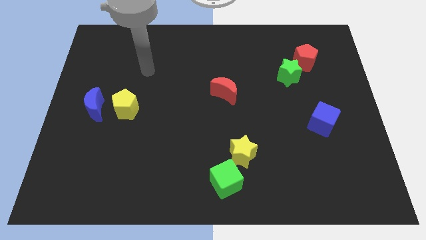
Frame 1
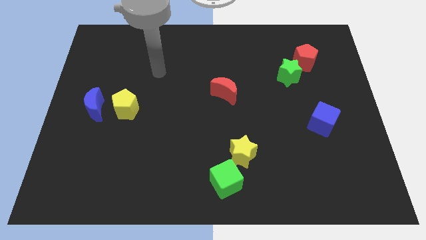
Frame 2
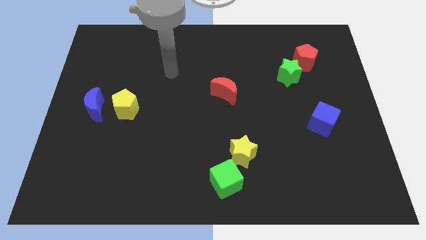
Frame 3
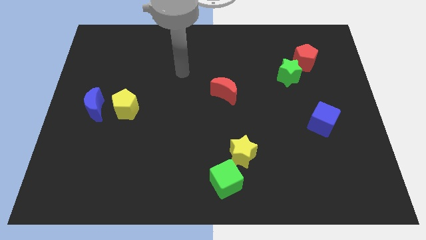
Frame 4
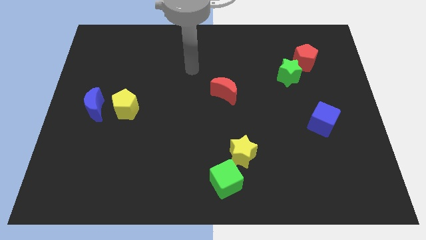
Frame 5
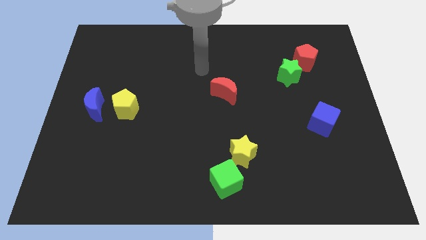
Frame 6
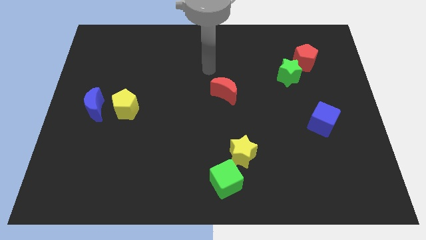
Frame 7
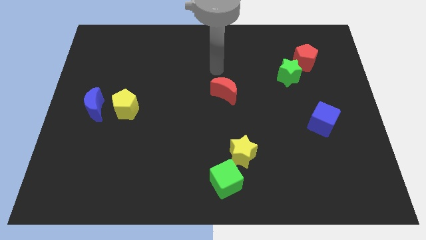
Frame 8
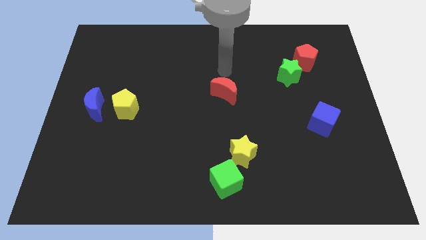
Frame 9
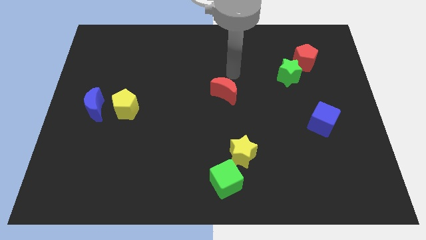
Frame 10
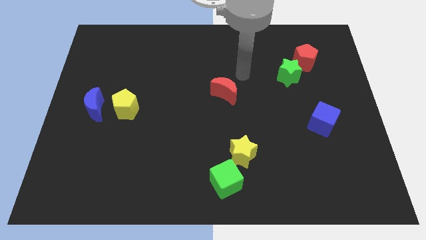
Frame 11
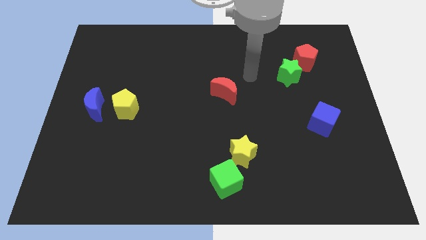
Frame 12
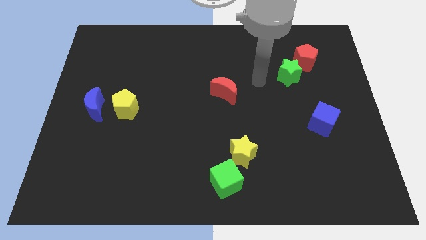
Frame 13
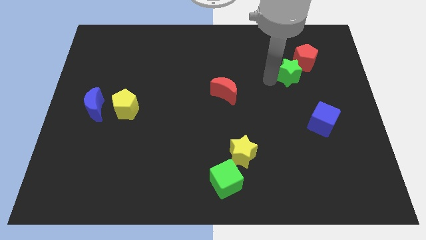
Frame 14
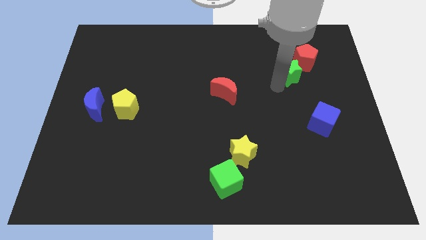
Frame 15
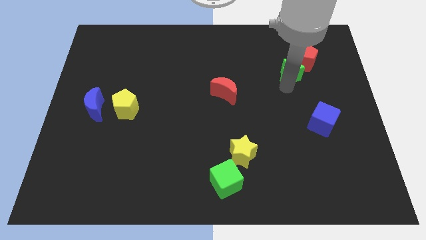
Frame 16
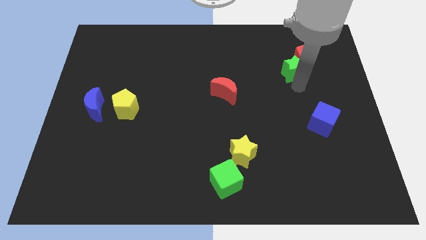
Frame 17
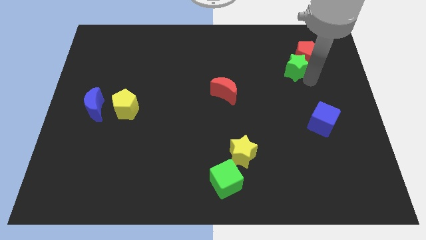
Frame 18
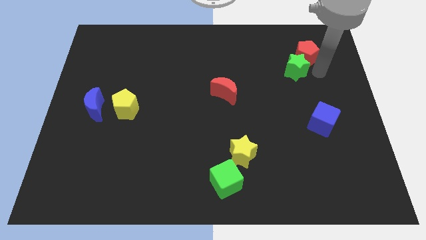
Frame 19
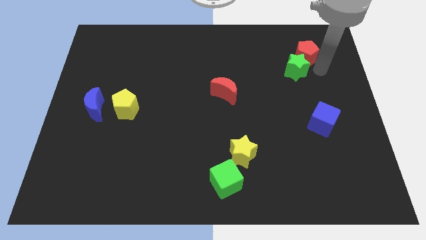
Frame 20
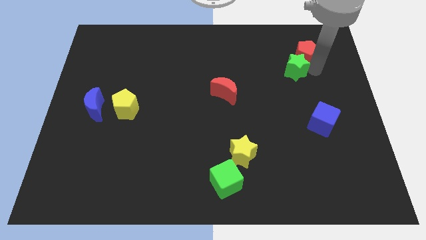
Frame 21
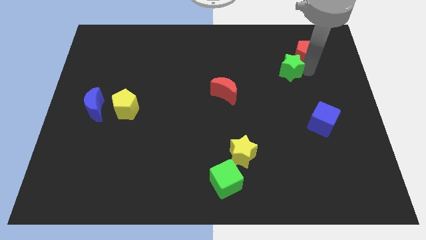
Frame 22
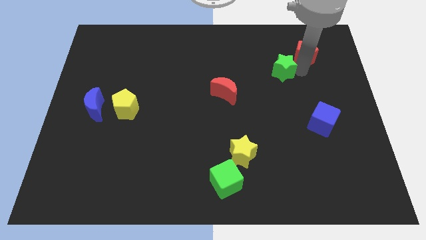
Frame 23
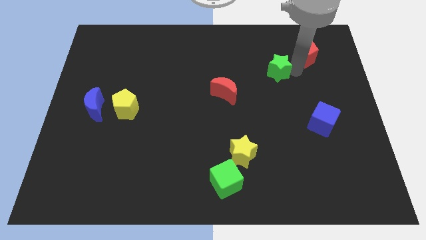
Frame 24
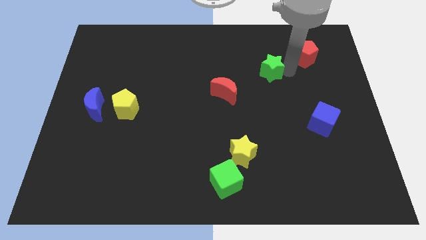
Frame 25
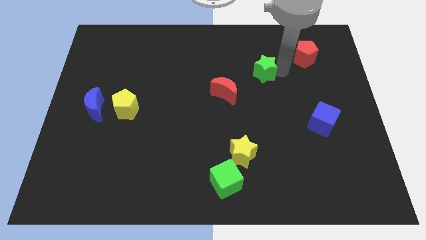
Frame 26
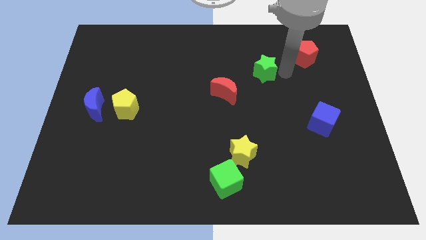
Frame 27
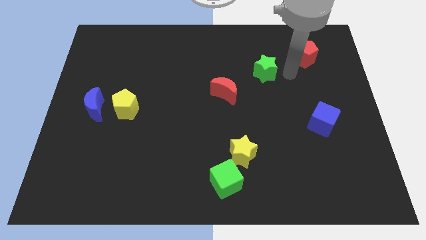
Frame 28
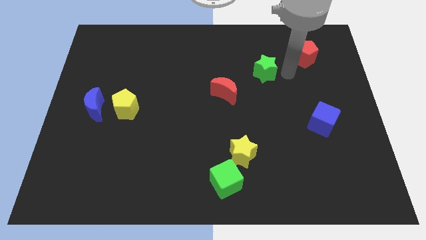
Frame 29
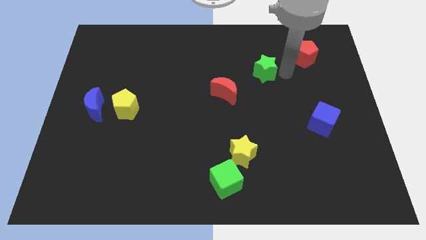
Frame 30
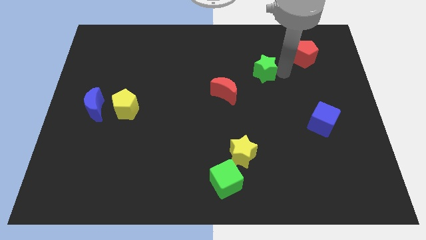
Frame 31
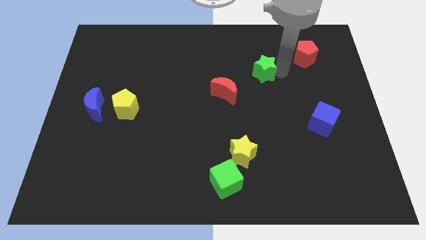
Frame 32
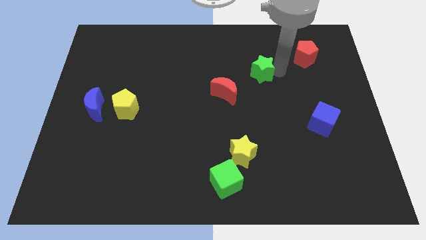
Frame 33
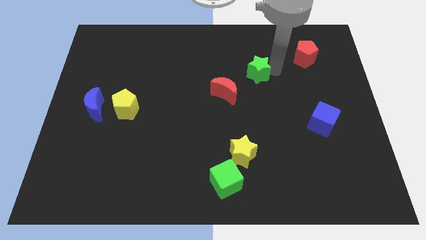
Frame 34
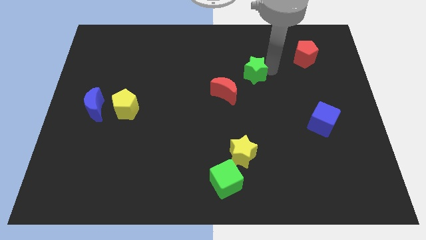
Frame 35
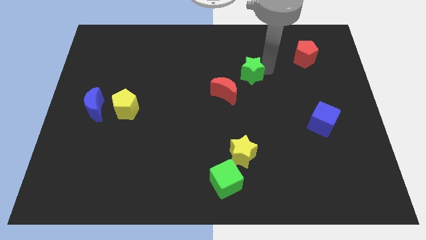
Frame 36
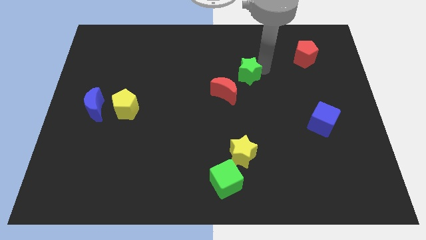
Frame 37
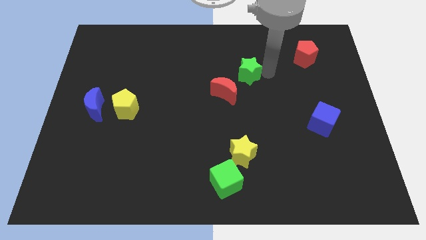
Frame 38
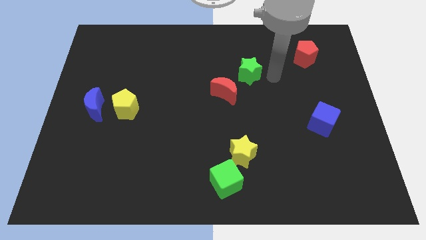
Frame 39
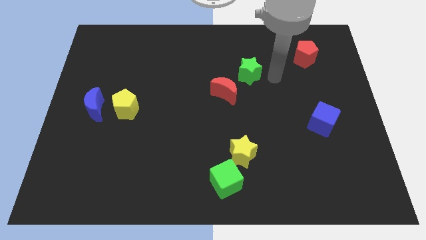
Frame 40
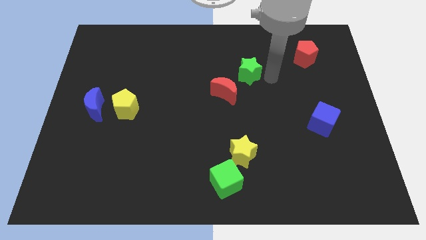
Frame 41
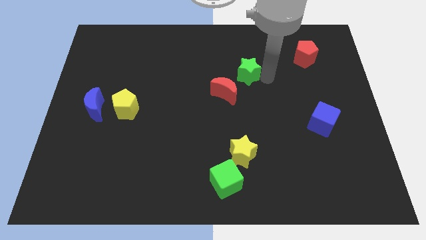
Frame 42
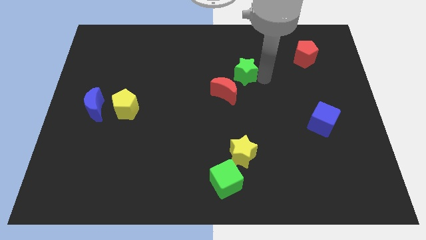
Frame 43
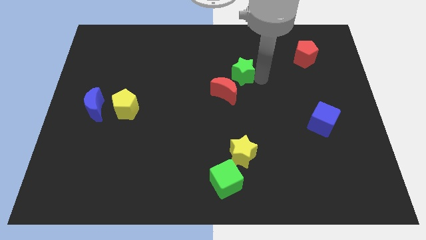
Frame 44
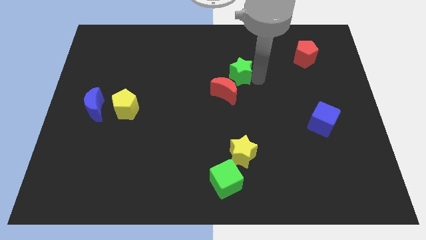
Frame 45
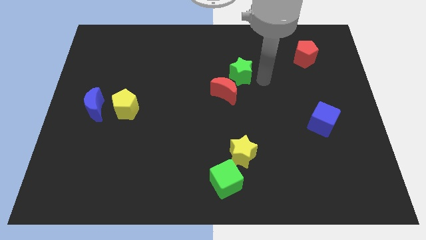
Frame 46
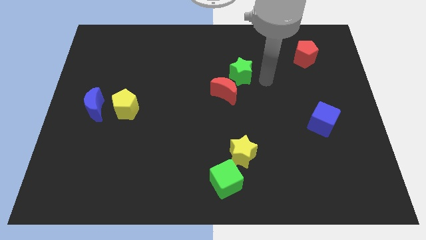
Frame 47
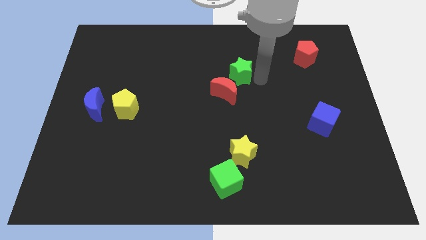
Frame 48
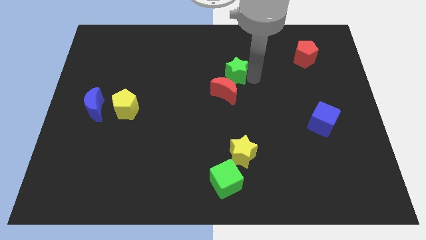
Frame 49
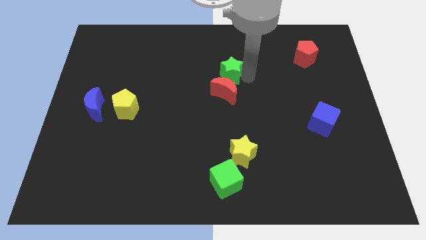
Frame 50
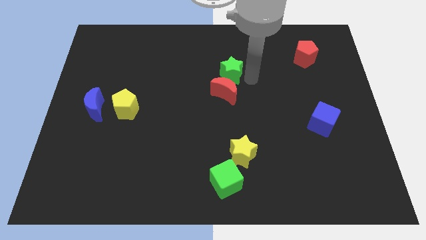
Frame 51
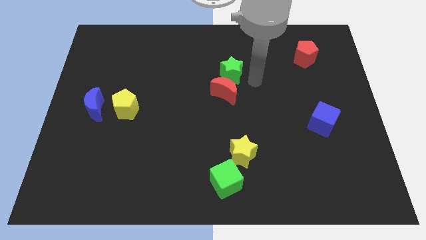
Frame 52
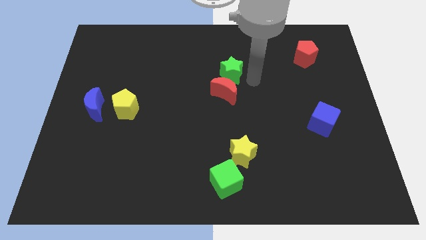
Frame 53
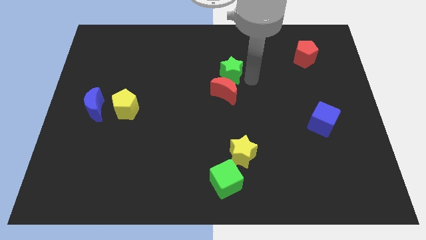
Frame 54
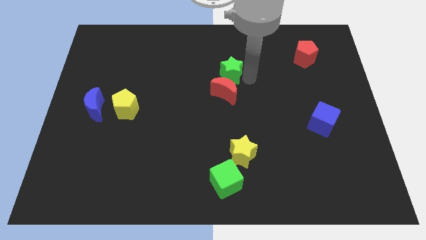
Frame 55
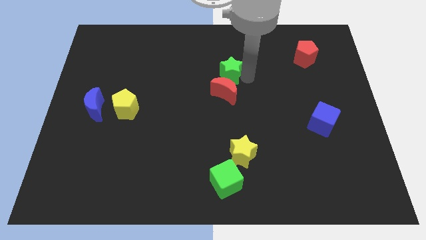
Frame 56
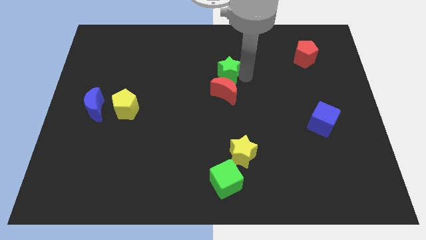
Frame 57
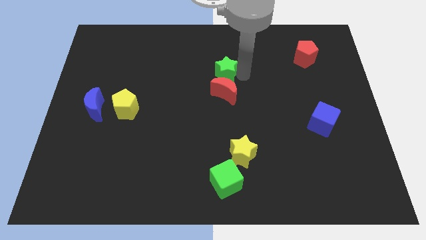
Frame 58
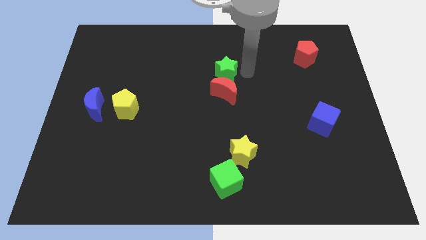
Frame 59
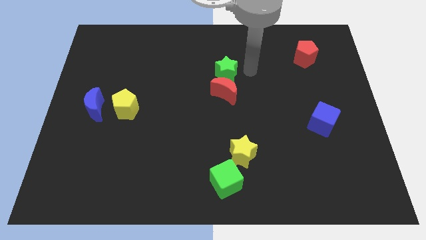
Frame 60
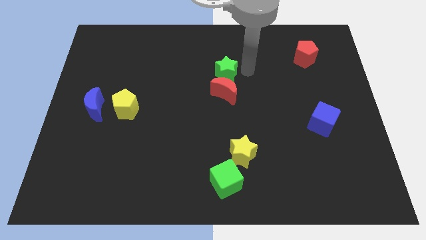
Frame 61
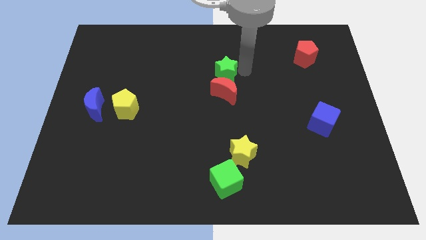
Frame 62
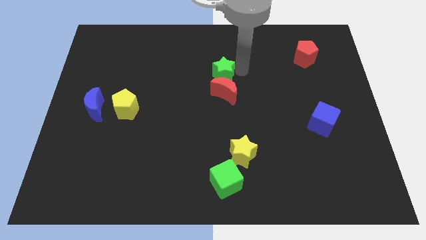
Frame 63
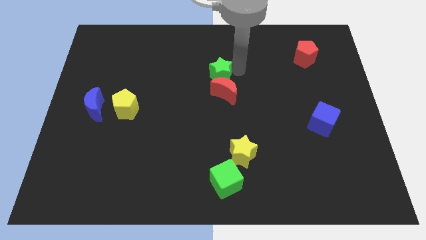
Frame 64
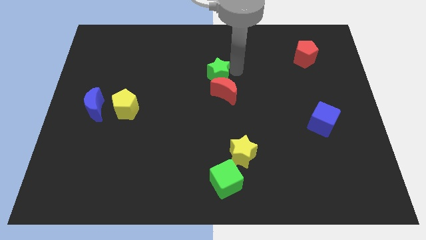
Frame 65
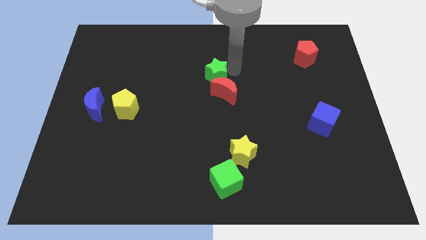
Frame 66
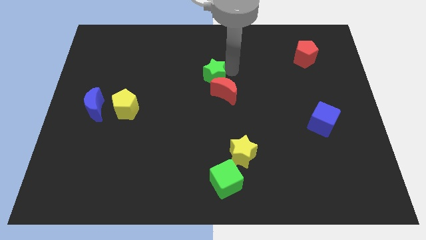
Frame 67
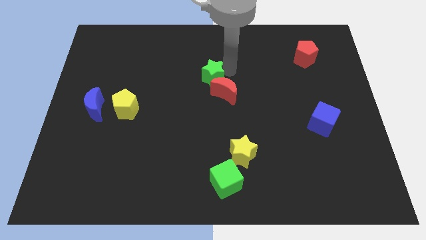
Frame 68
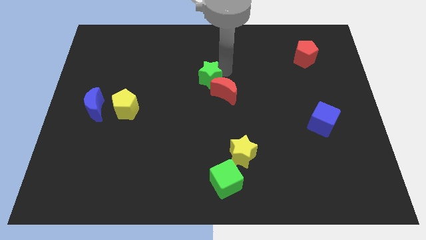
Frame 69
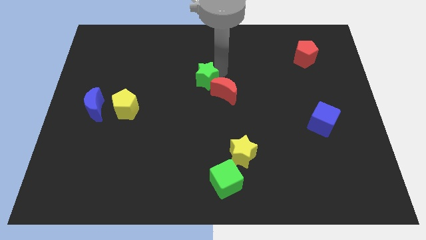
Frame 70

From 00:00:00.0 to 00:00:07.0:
slide the green star left

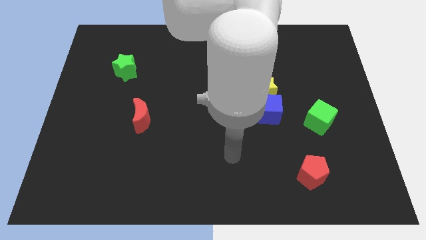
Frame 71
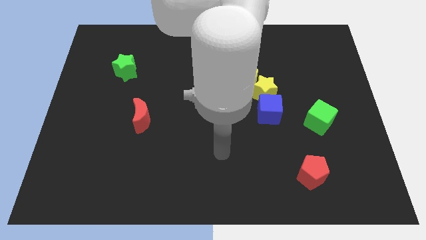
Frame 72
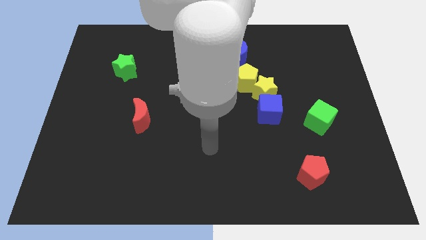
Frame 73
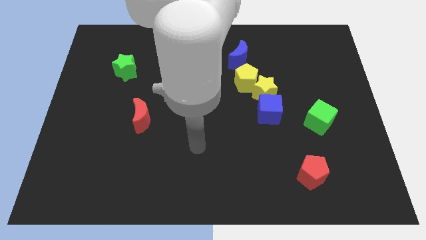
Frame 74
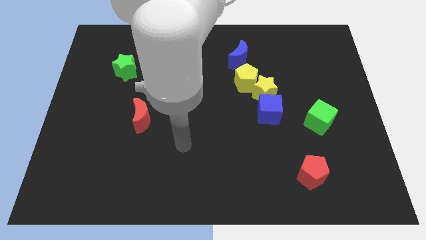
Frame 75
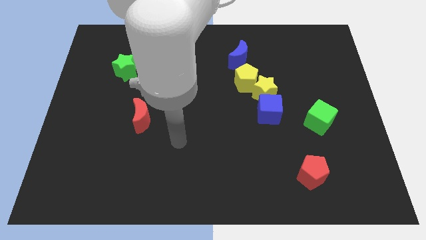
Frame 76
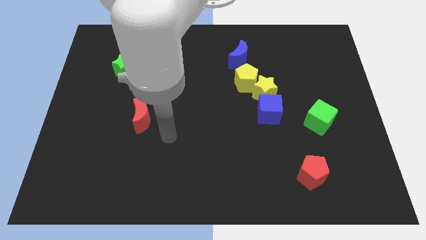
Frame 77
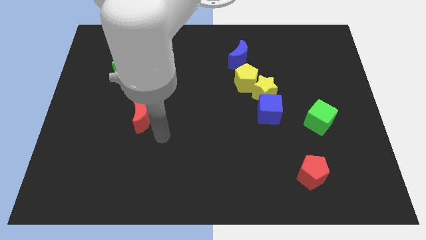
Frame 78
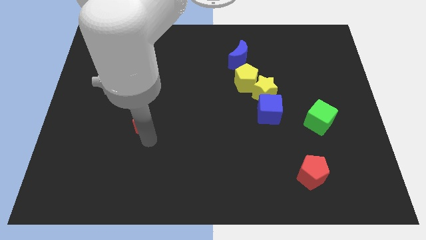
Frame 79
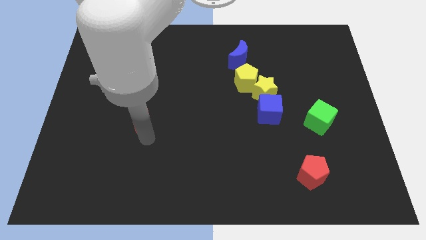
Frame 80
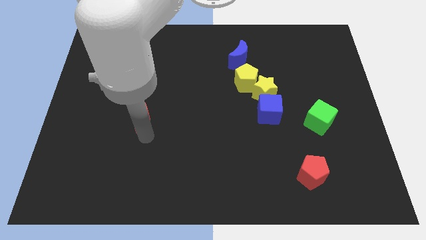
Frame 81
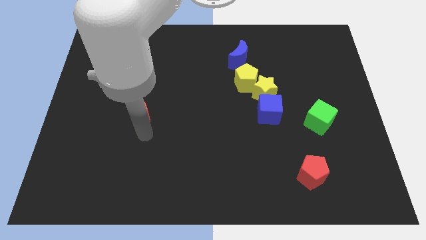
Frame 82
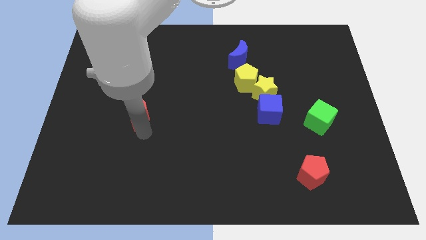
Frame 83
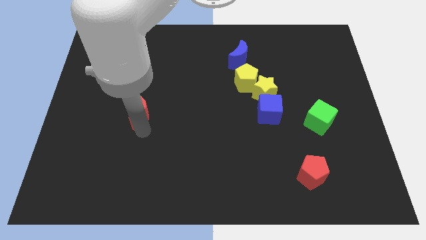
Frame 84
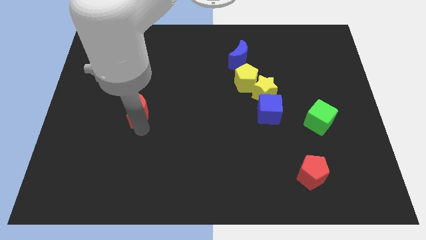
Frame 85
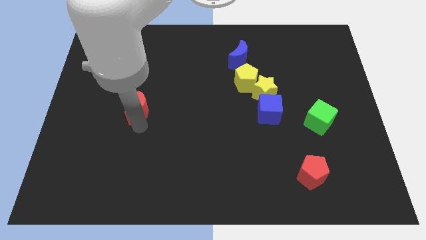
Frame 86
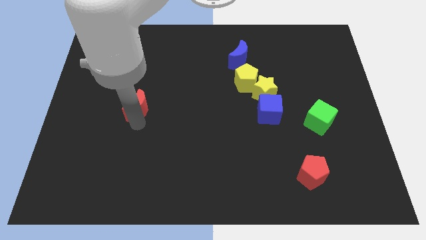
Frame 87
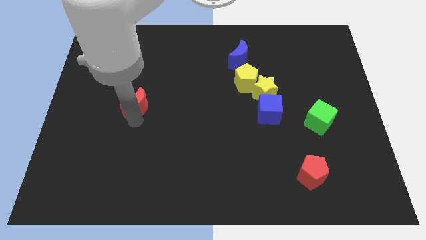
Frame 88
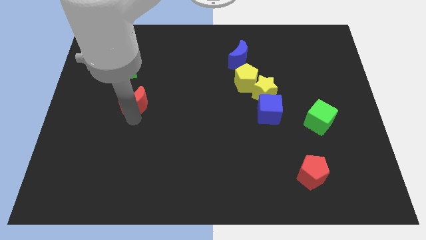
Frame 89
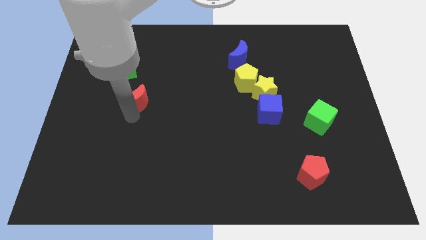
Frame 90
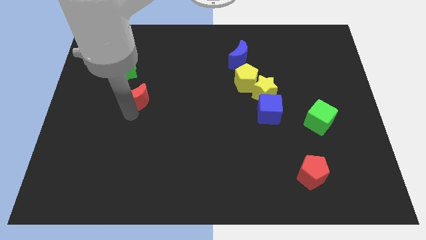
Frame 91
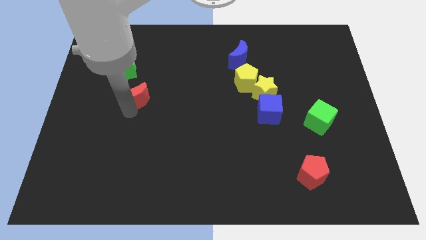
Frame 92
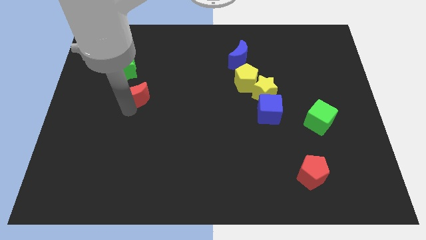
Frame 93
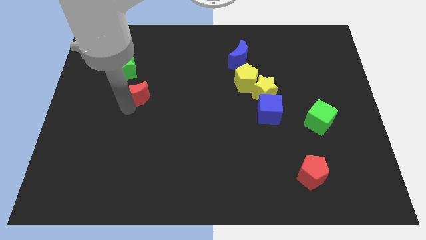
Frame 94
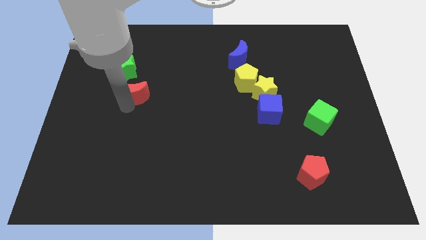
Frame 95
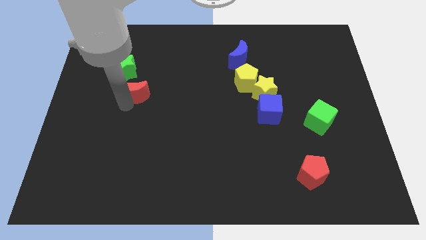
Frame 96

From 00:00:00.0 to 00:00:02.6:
move the red moon somewhat upwards
